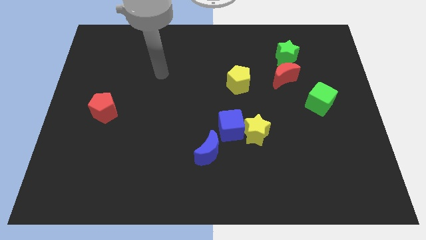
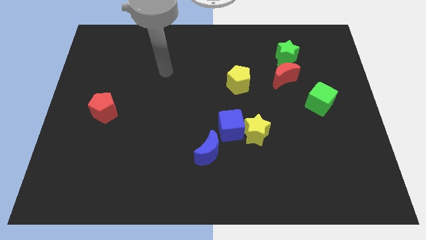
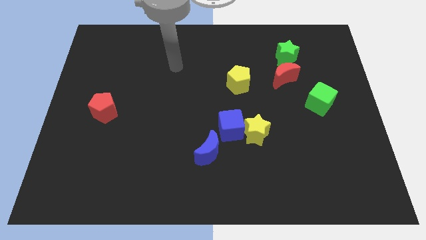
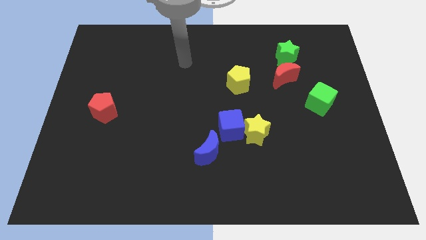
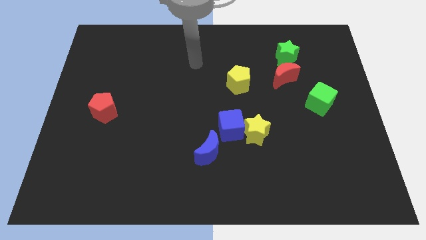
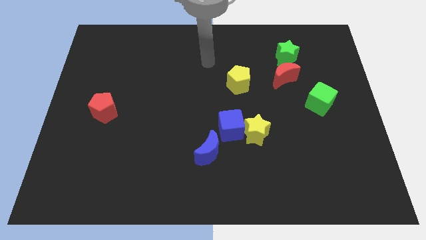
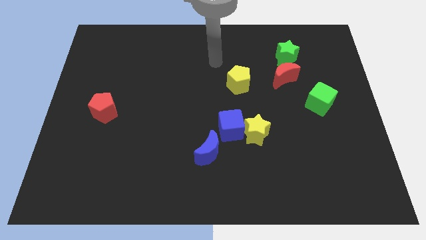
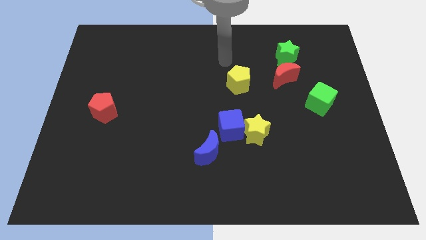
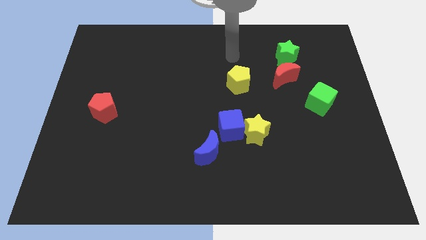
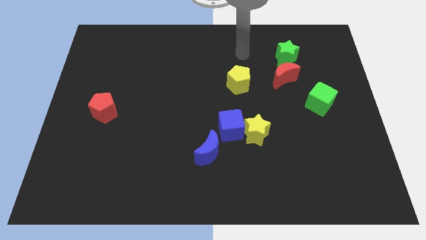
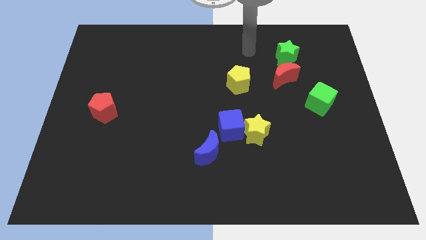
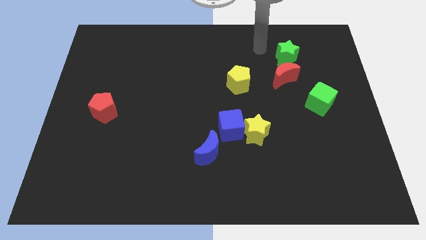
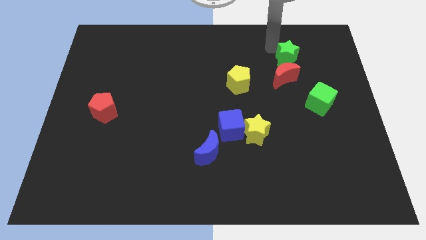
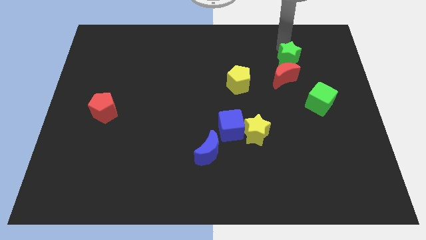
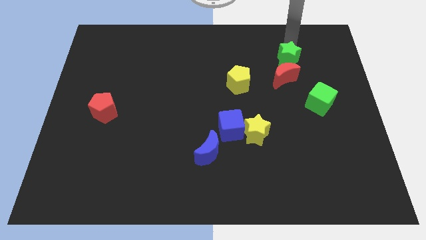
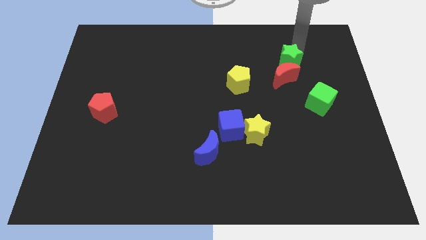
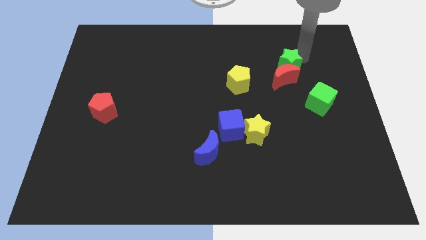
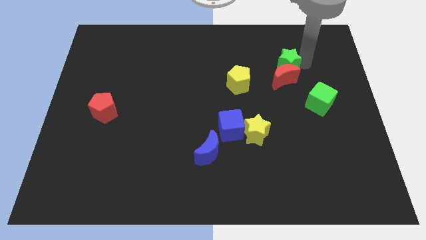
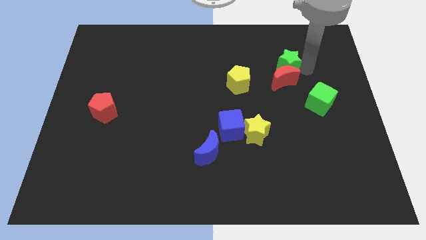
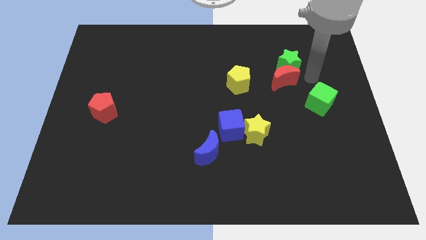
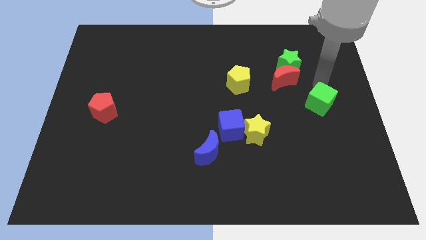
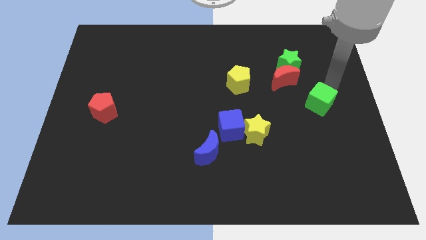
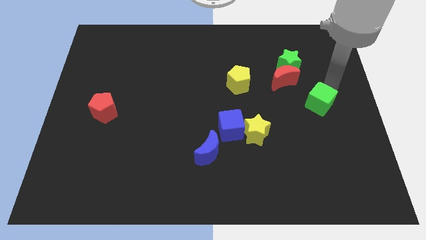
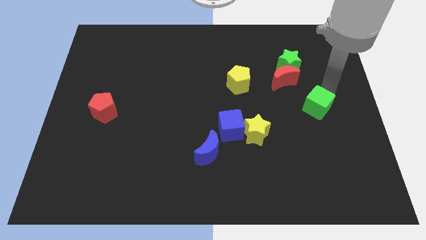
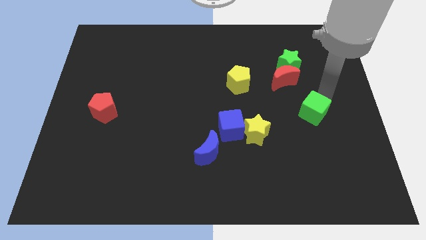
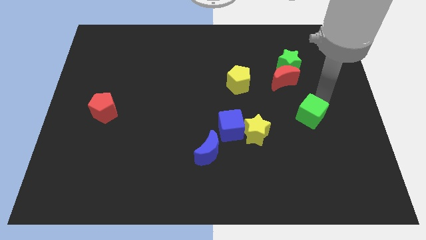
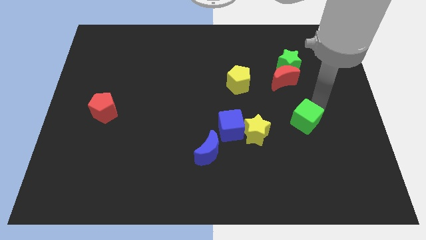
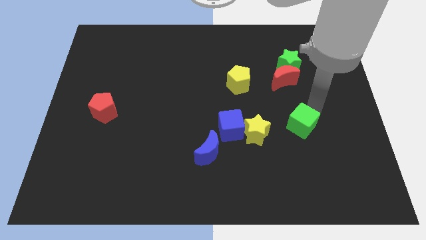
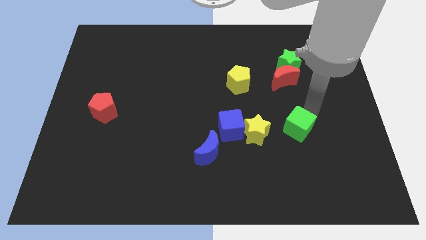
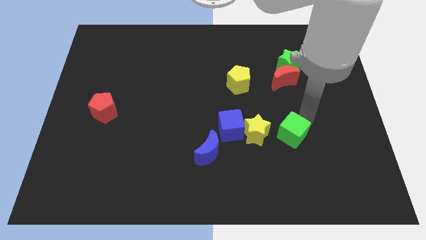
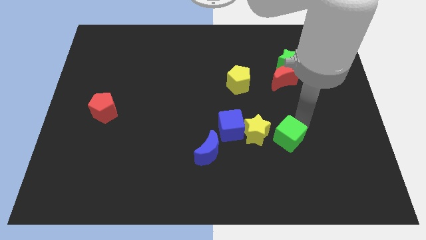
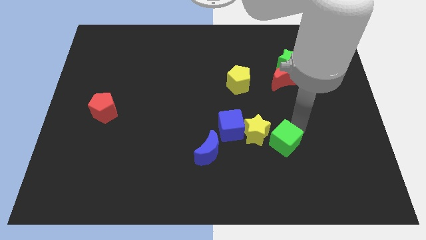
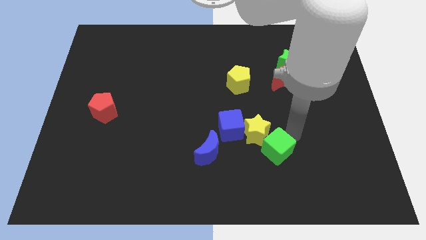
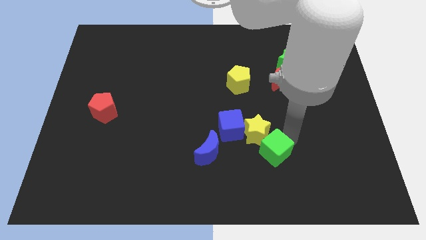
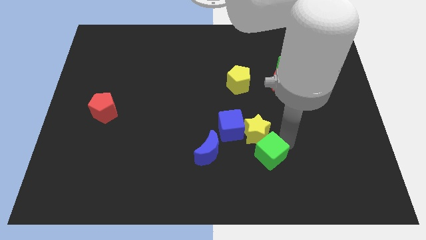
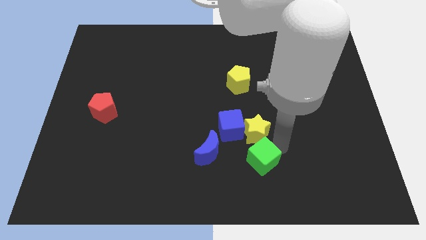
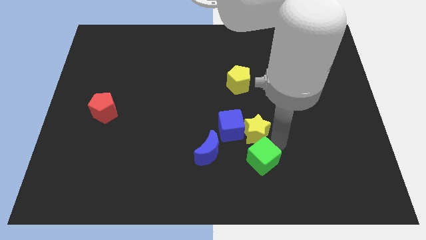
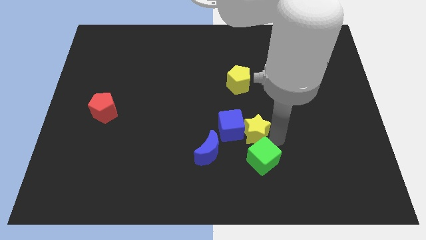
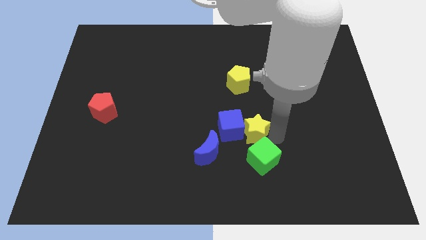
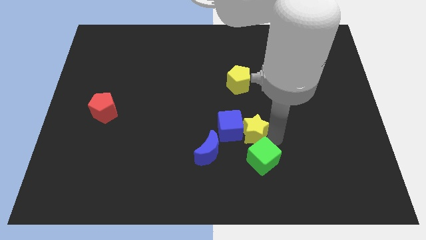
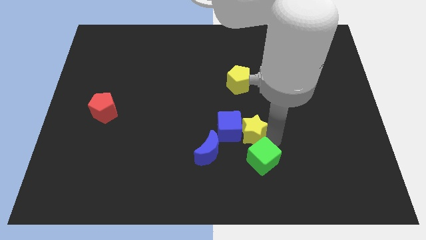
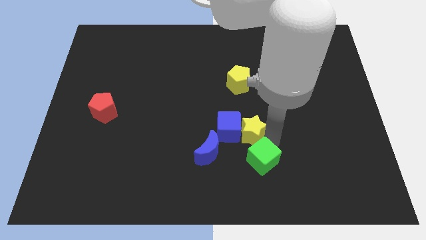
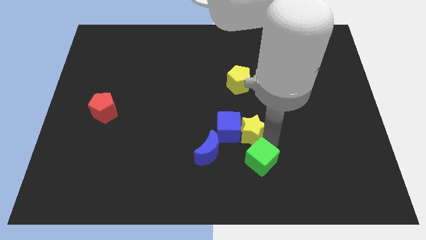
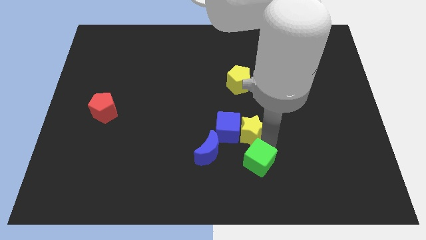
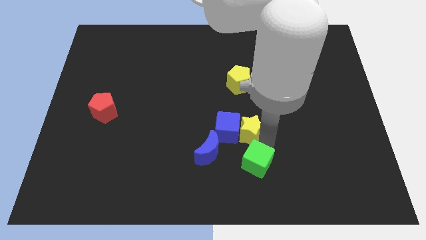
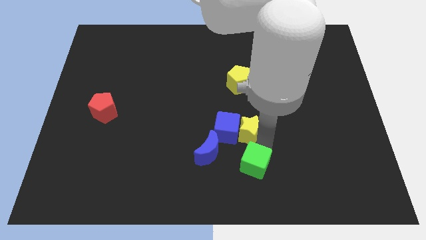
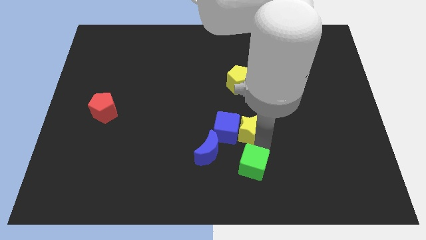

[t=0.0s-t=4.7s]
push the green cube to the bottom side

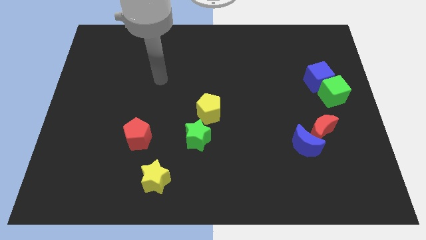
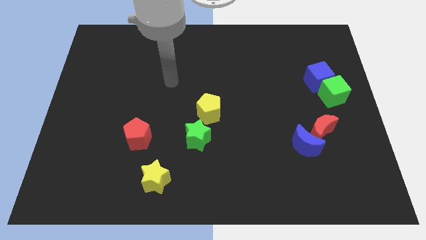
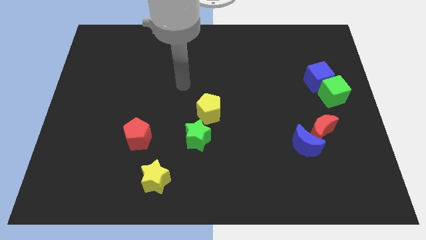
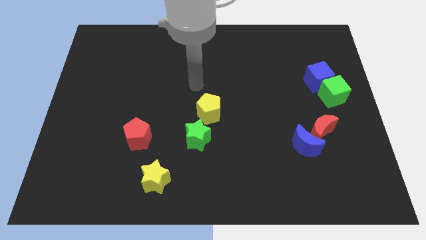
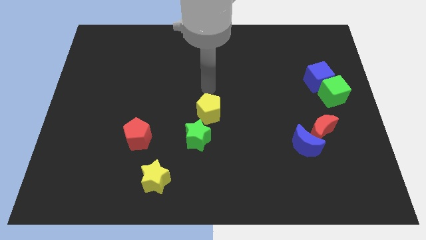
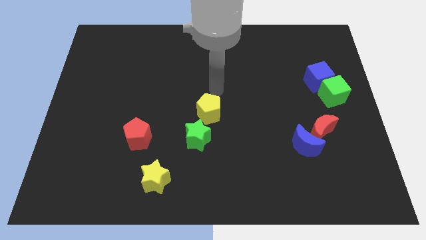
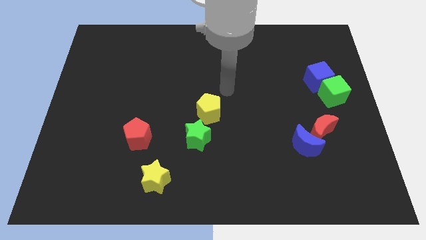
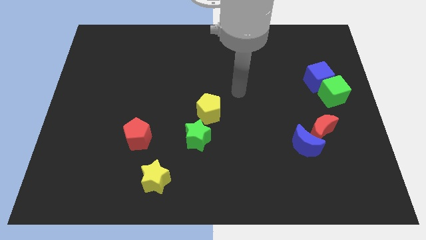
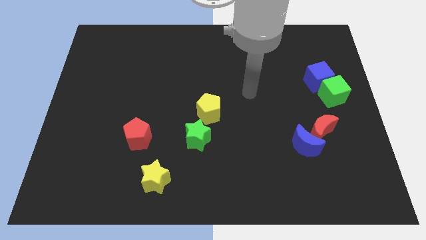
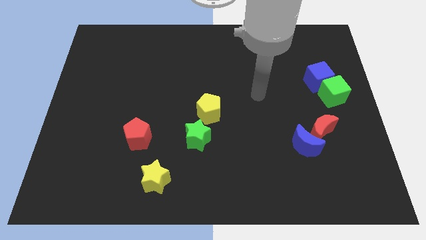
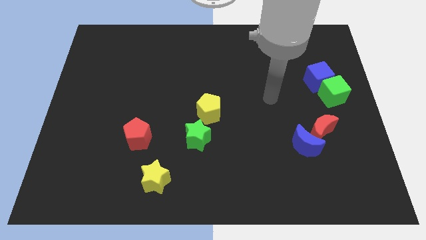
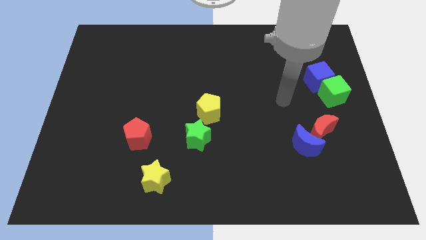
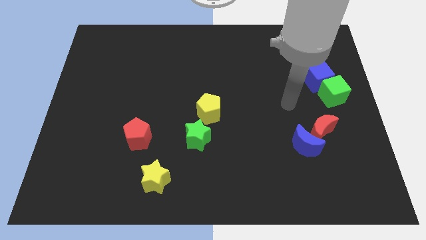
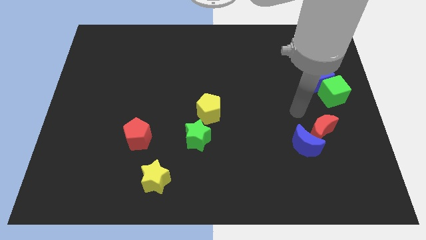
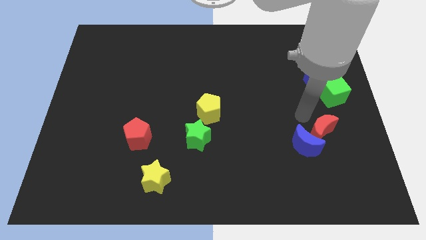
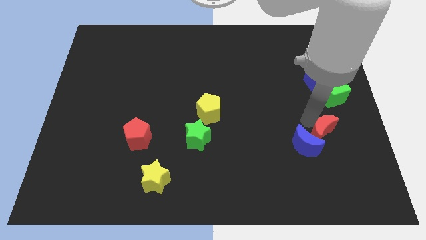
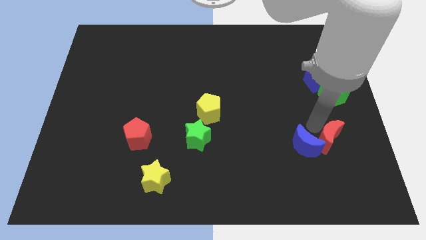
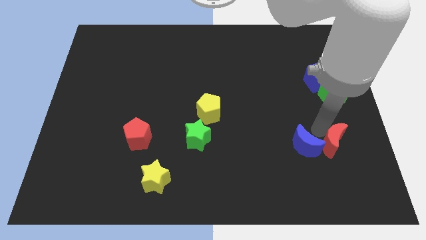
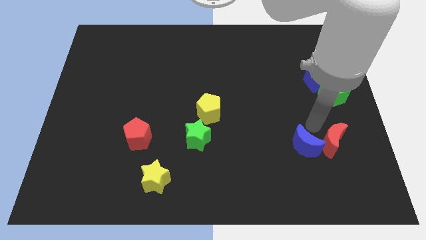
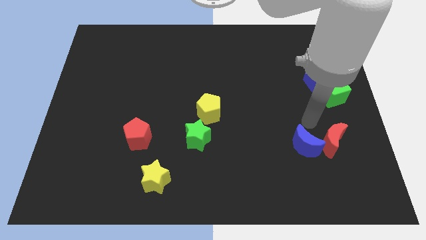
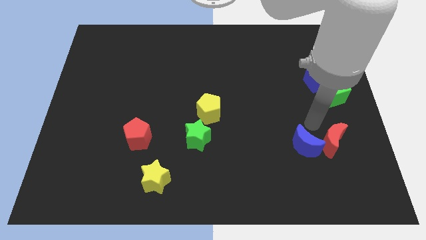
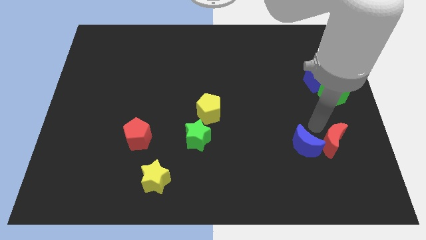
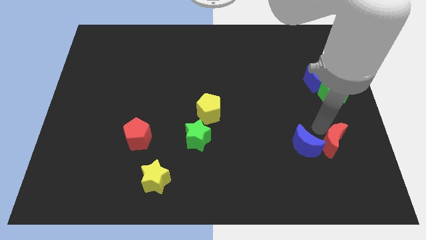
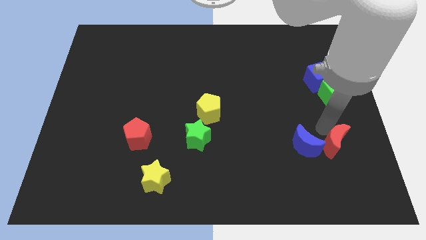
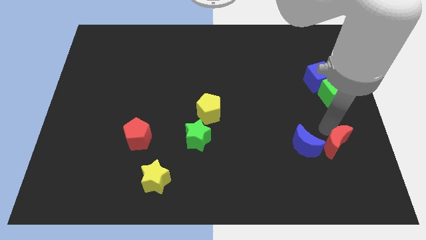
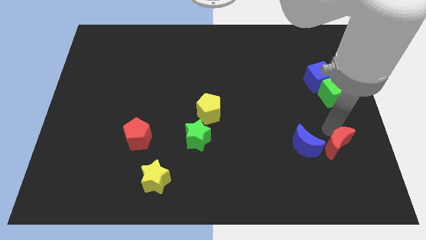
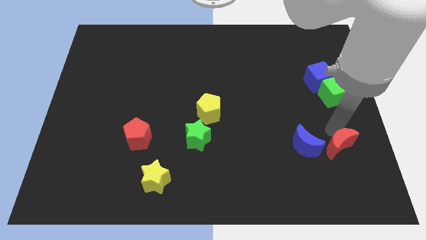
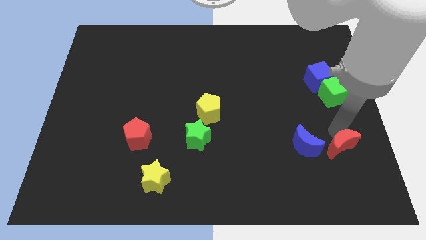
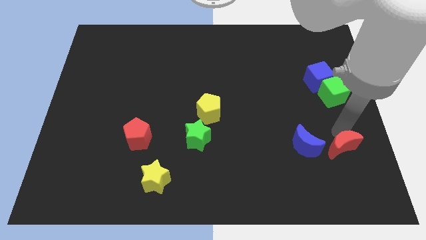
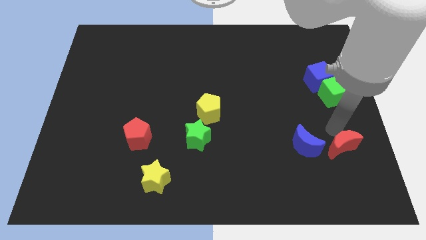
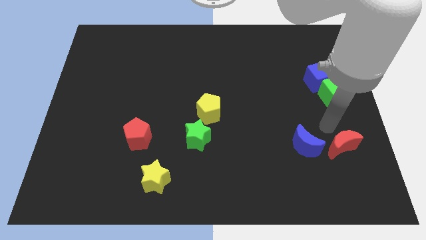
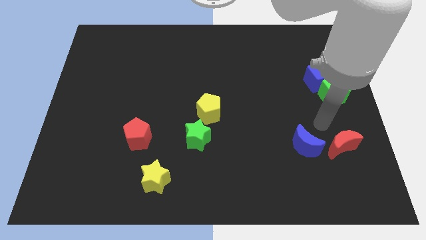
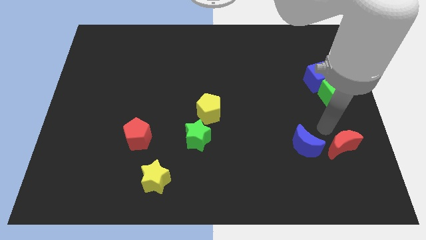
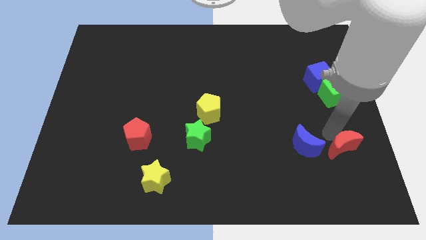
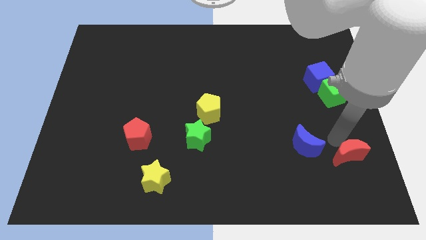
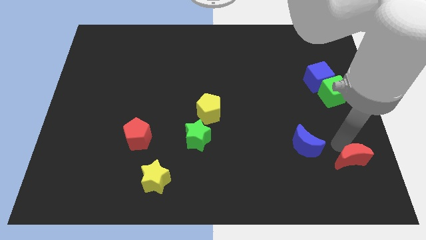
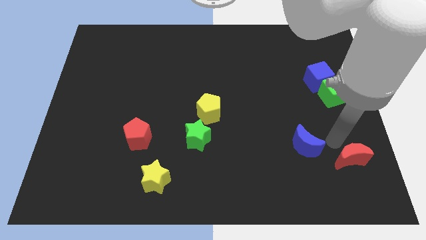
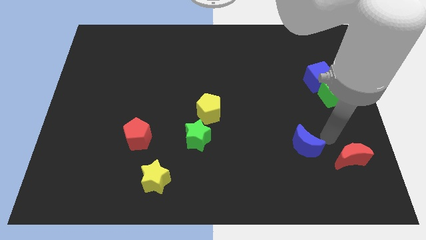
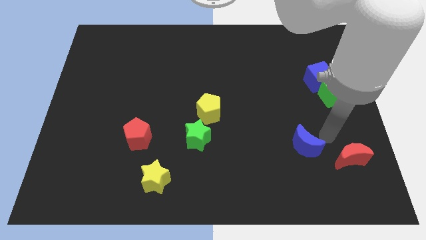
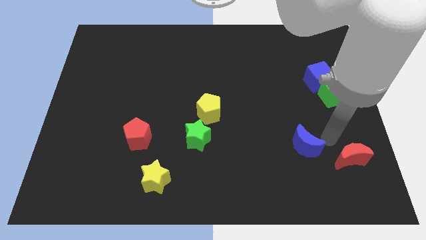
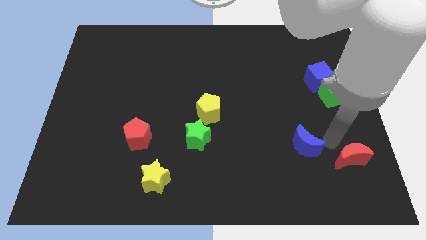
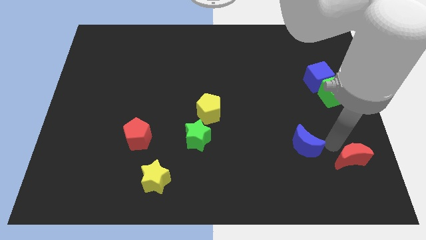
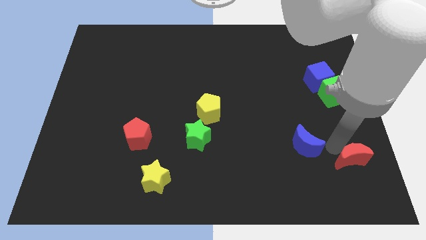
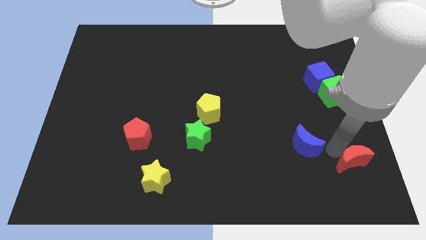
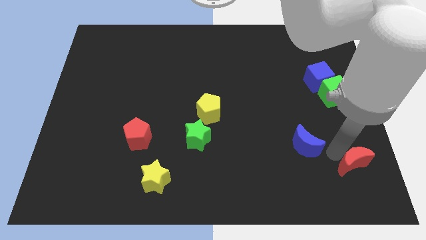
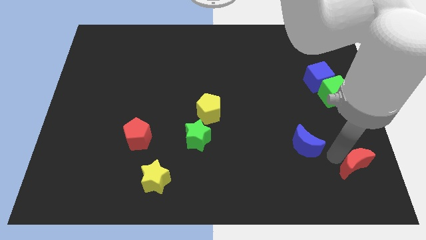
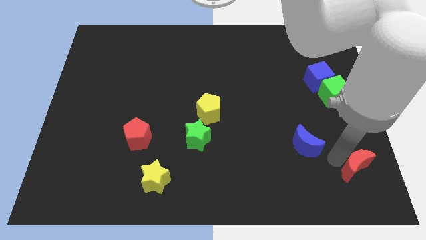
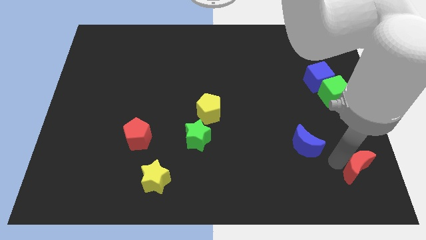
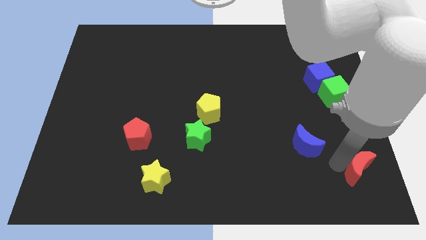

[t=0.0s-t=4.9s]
push the red moon to the bottom right of the board
